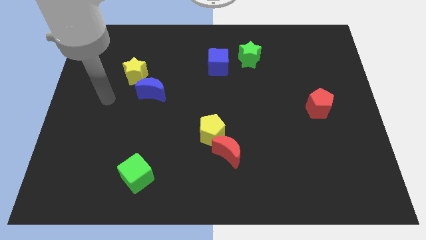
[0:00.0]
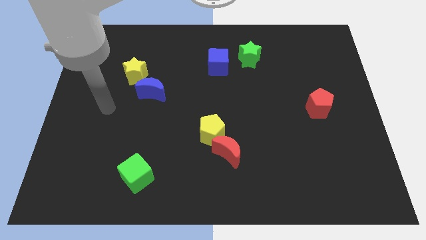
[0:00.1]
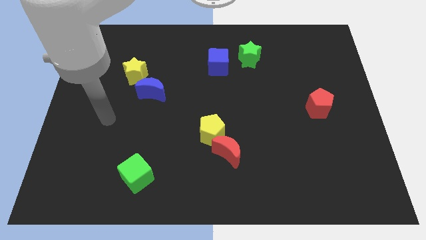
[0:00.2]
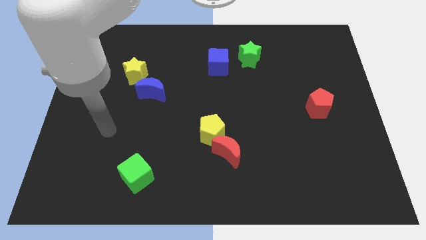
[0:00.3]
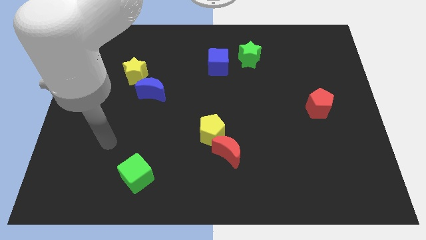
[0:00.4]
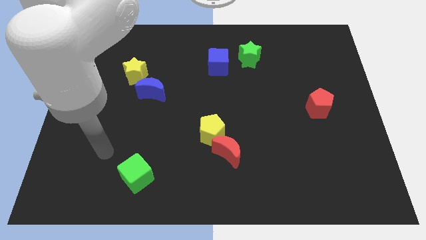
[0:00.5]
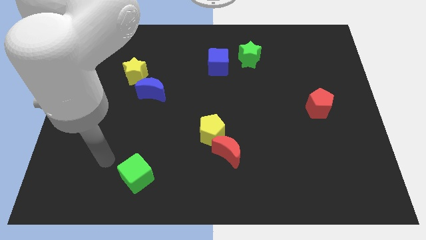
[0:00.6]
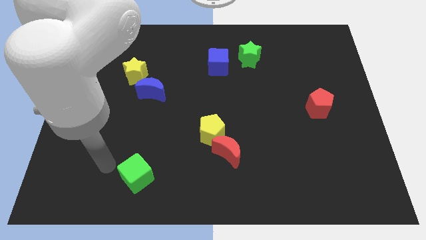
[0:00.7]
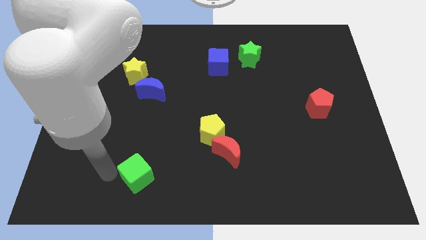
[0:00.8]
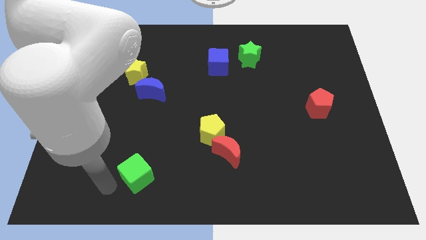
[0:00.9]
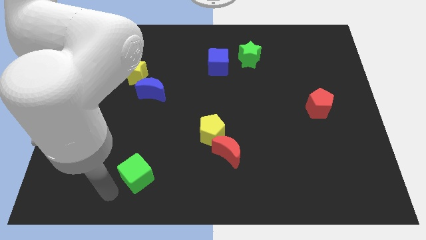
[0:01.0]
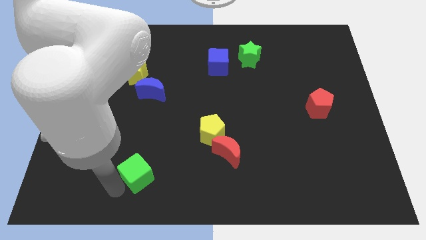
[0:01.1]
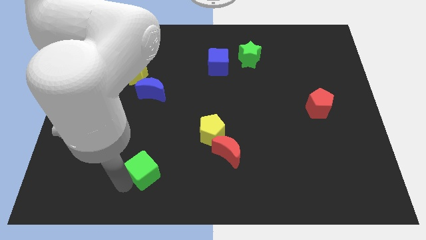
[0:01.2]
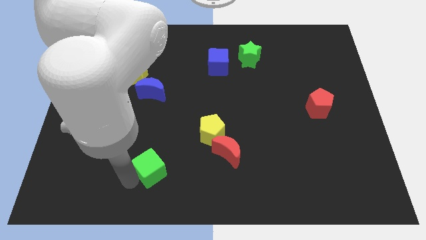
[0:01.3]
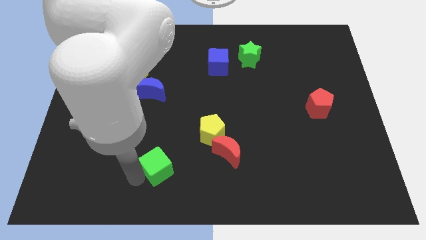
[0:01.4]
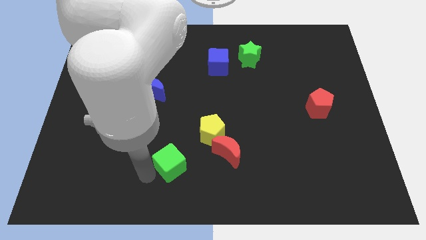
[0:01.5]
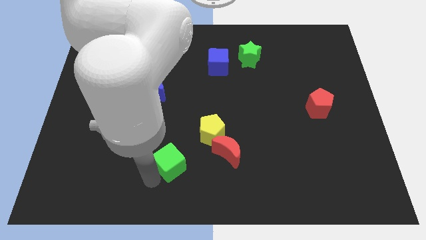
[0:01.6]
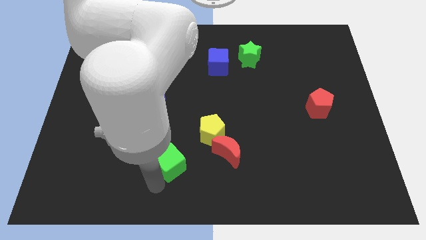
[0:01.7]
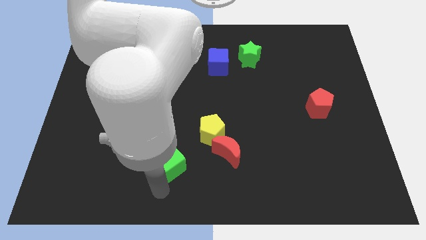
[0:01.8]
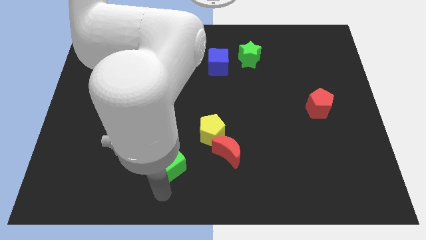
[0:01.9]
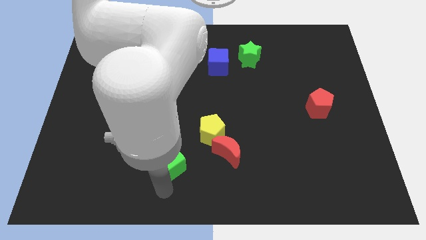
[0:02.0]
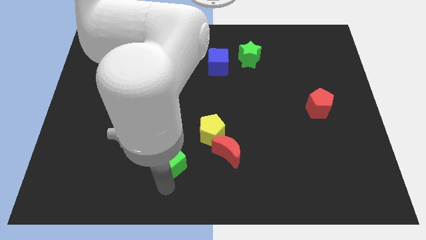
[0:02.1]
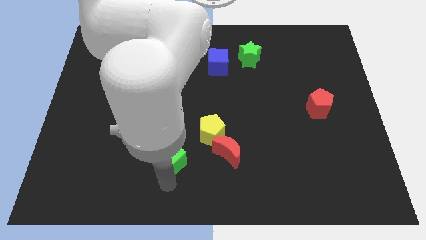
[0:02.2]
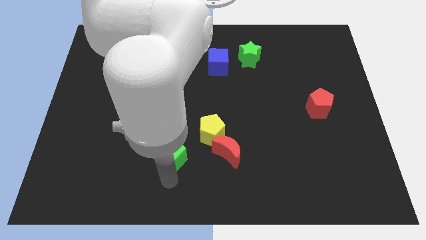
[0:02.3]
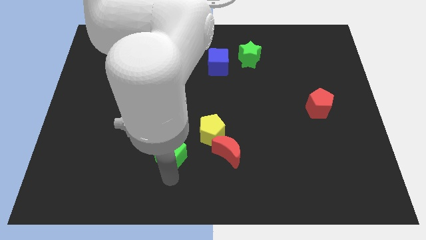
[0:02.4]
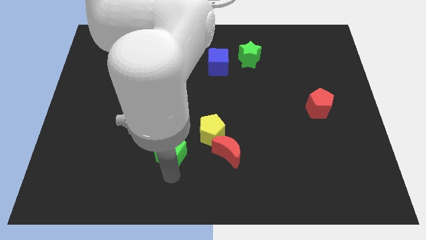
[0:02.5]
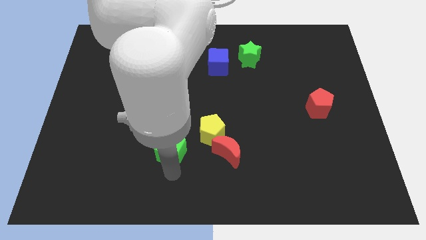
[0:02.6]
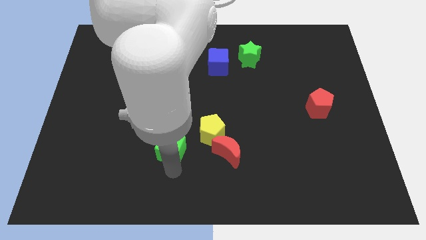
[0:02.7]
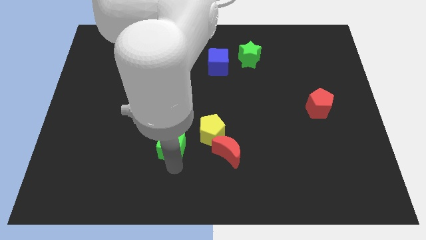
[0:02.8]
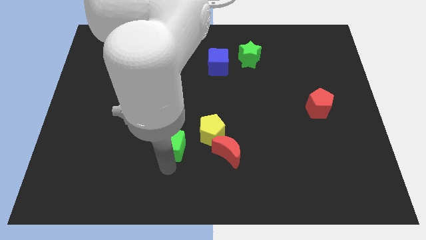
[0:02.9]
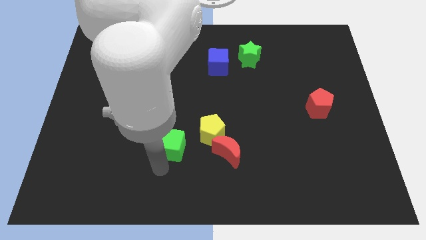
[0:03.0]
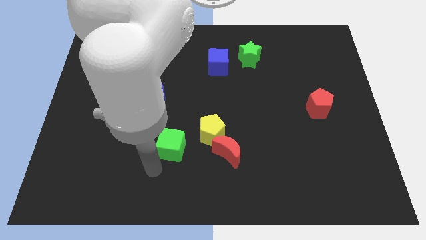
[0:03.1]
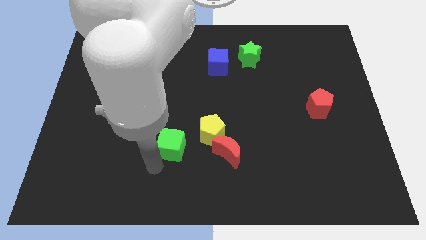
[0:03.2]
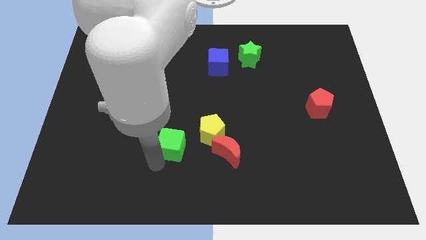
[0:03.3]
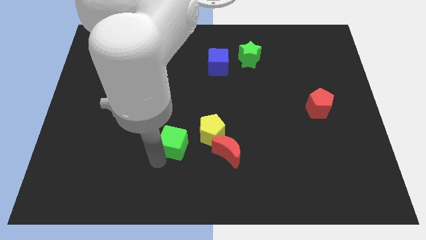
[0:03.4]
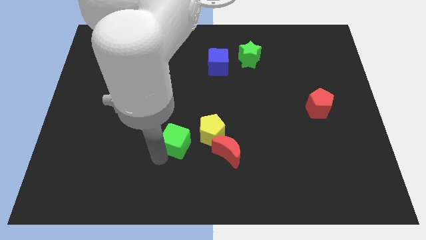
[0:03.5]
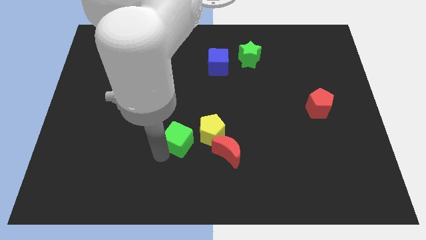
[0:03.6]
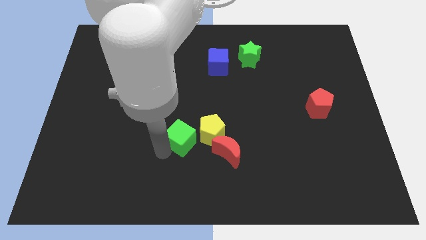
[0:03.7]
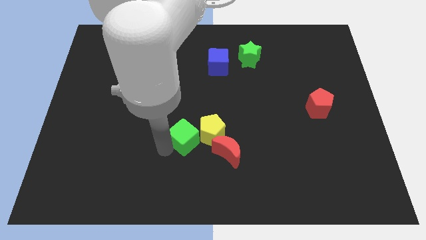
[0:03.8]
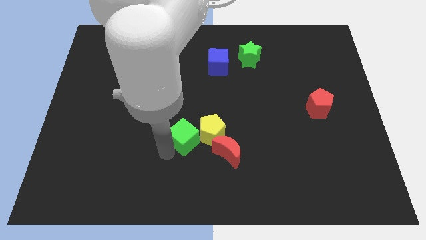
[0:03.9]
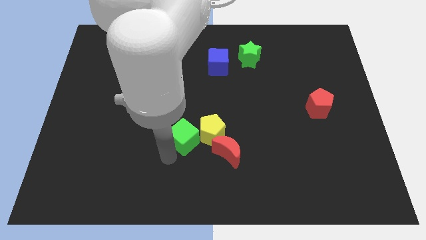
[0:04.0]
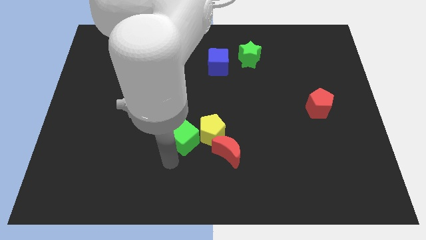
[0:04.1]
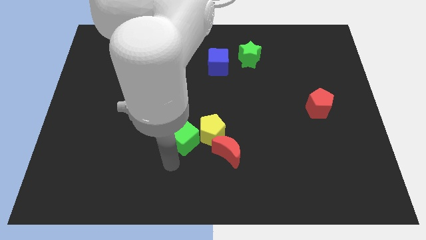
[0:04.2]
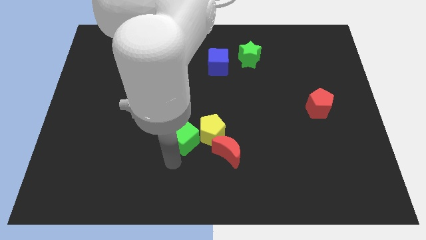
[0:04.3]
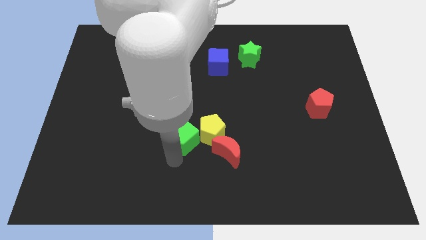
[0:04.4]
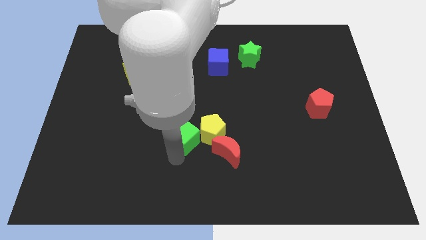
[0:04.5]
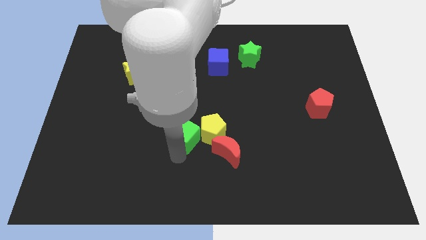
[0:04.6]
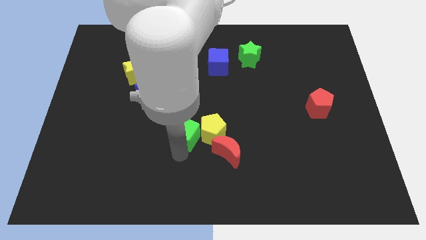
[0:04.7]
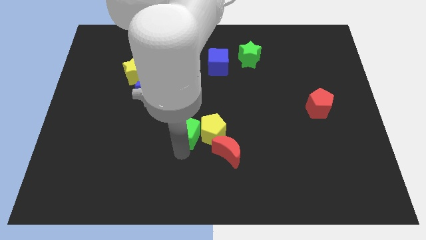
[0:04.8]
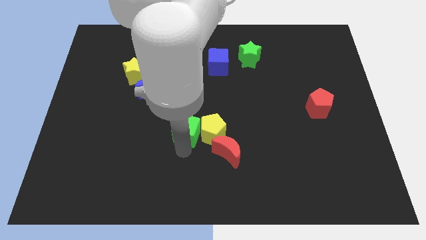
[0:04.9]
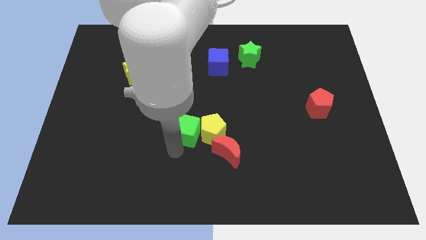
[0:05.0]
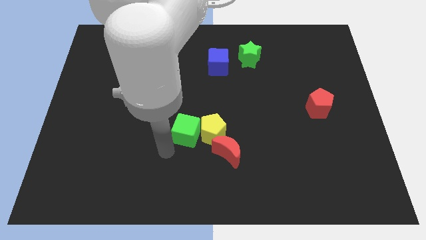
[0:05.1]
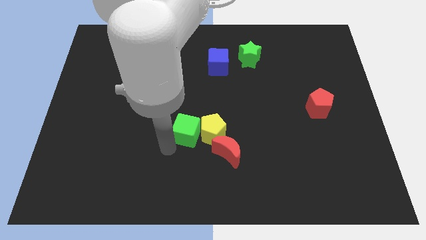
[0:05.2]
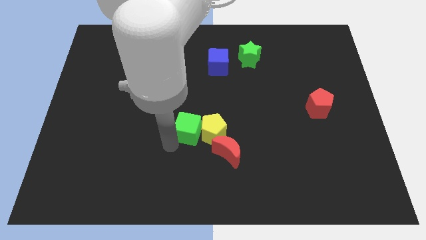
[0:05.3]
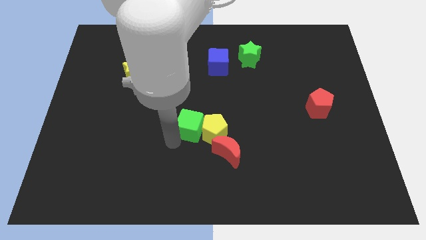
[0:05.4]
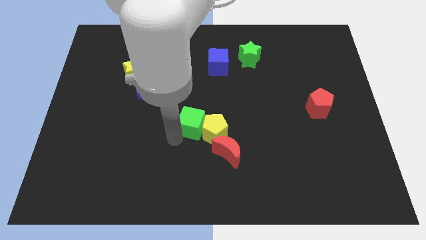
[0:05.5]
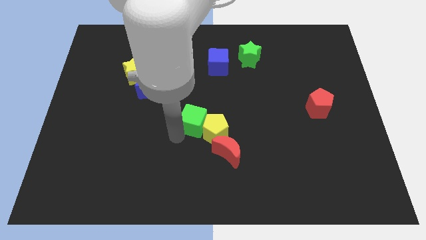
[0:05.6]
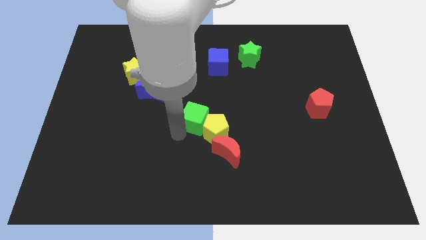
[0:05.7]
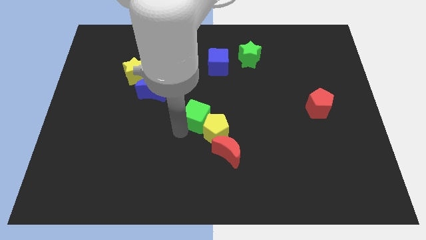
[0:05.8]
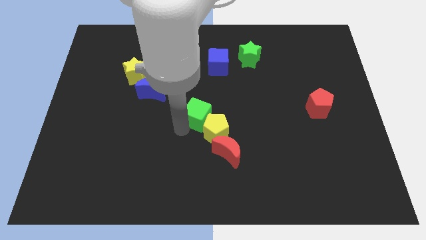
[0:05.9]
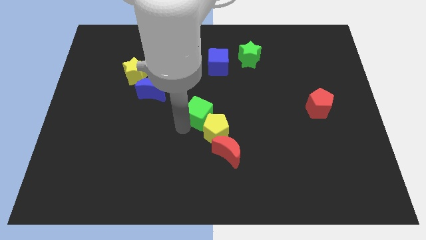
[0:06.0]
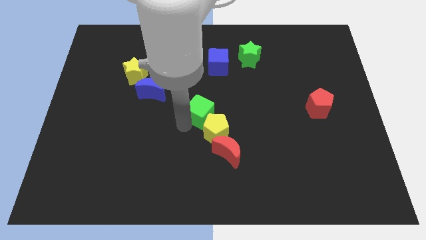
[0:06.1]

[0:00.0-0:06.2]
move the green cube up and right

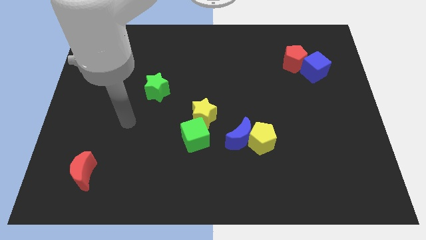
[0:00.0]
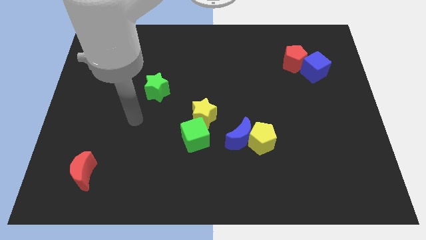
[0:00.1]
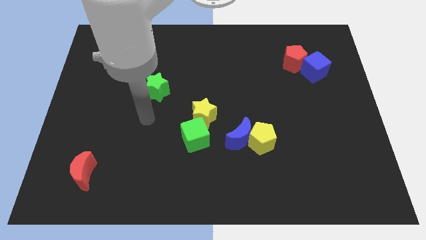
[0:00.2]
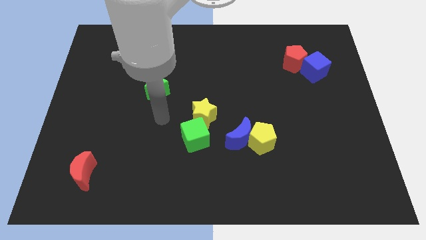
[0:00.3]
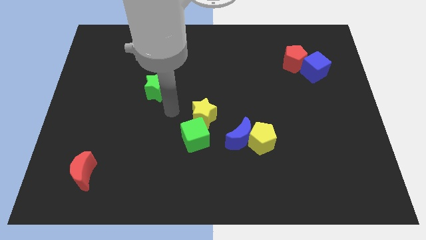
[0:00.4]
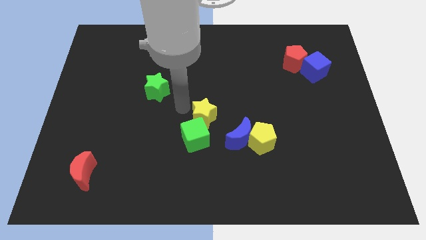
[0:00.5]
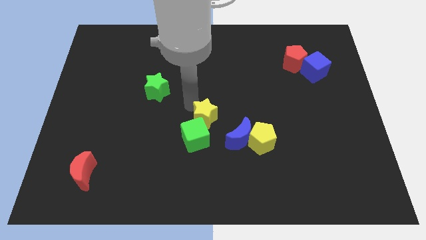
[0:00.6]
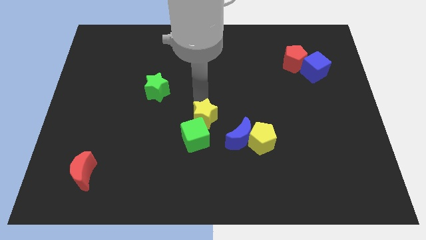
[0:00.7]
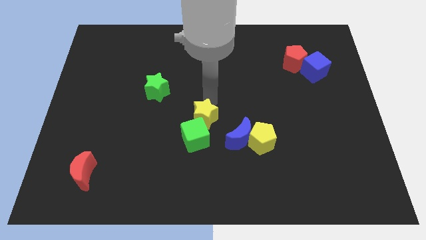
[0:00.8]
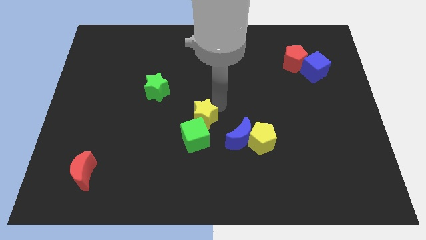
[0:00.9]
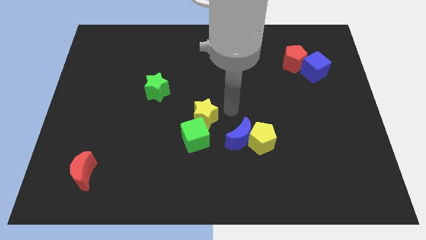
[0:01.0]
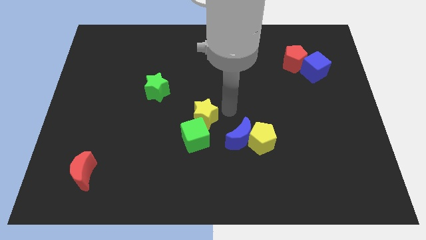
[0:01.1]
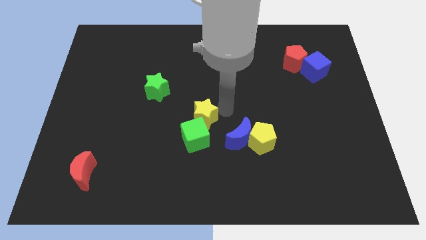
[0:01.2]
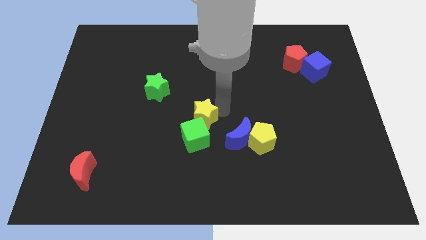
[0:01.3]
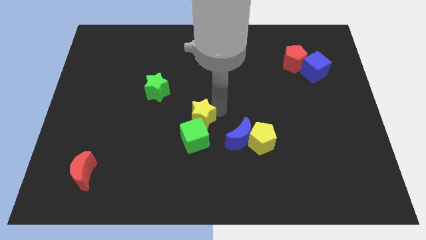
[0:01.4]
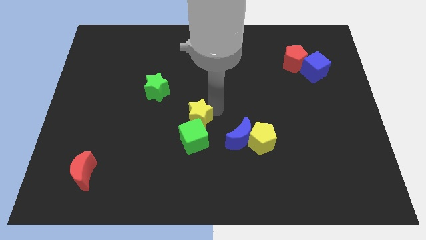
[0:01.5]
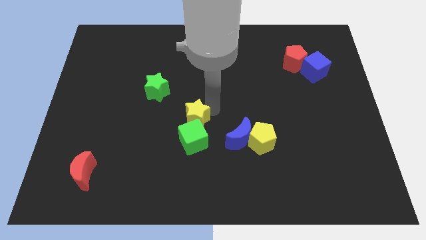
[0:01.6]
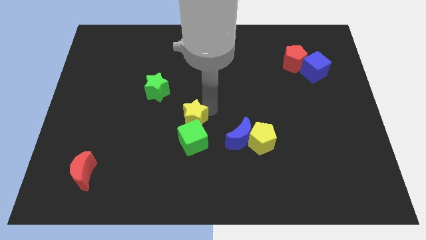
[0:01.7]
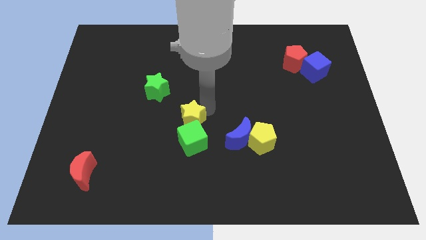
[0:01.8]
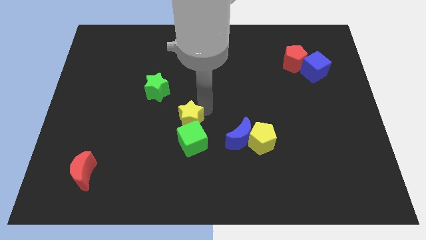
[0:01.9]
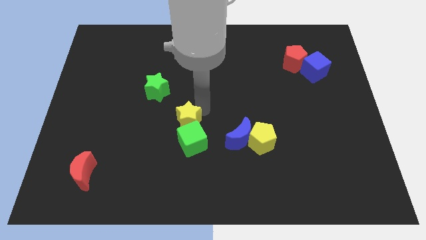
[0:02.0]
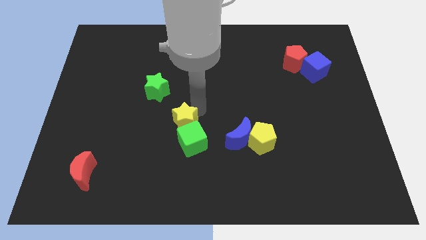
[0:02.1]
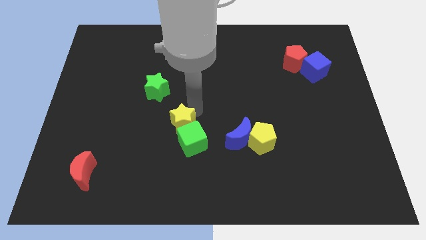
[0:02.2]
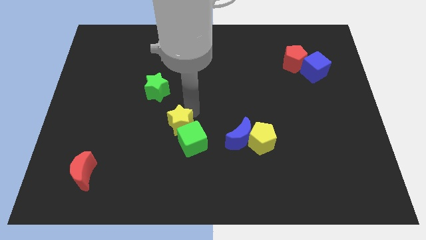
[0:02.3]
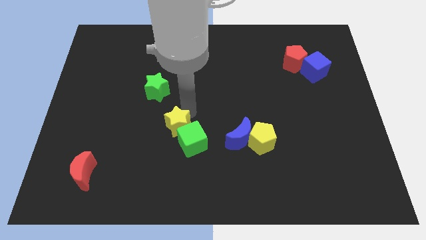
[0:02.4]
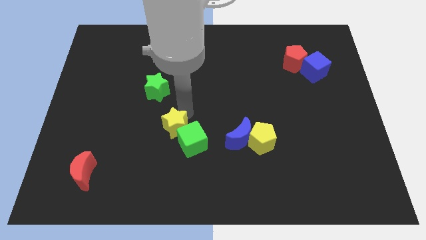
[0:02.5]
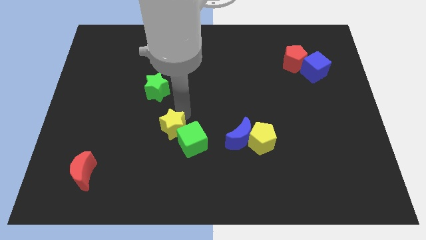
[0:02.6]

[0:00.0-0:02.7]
push the yellow star downwards and left diagonally slightly
